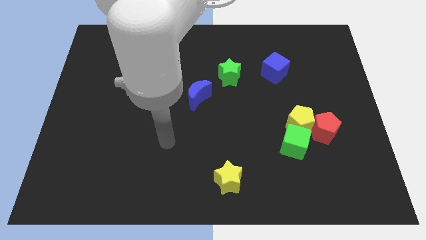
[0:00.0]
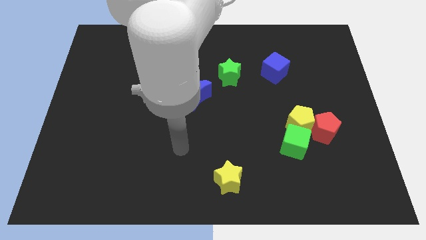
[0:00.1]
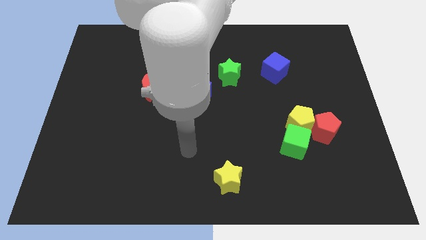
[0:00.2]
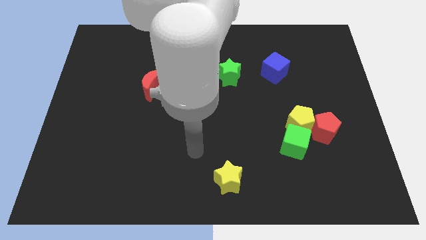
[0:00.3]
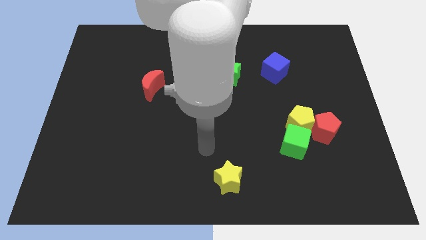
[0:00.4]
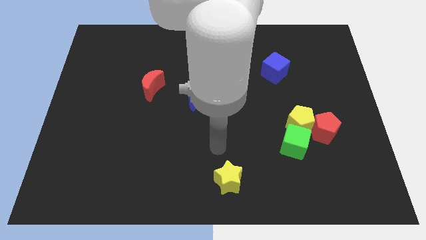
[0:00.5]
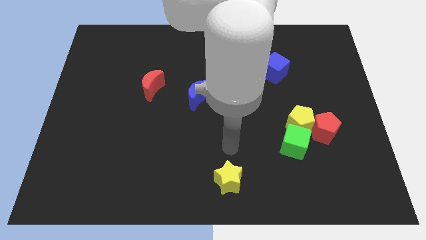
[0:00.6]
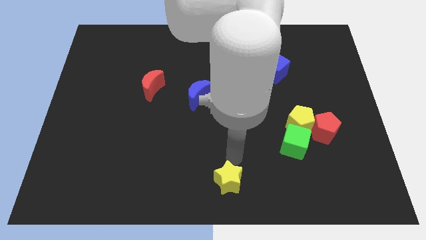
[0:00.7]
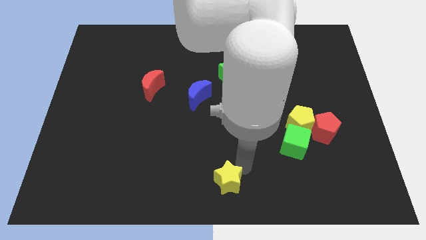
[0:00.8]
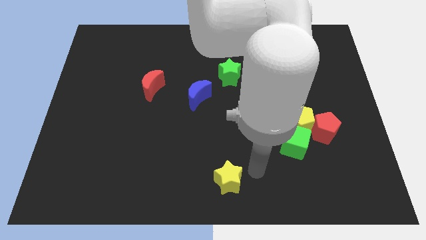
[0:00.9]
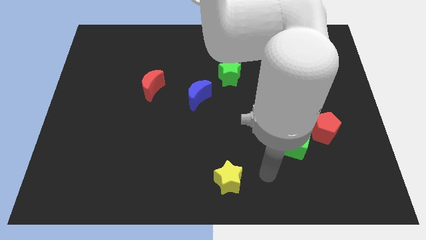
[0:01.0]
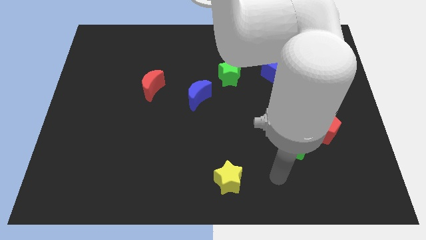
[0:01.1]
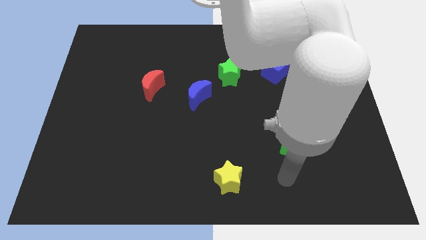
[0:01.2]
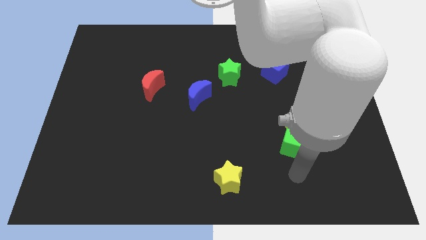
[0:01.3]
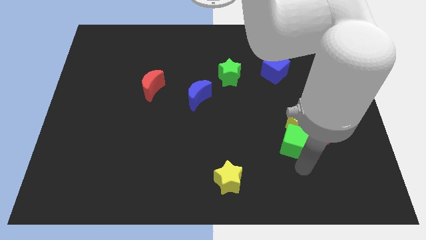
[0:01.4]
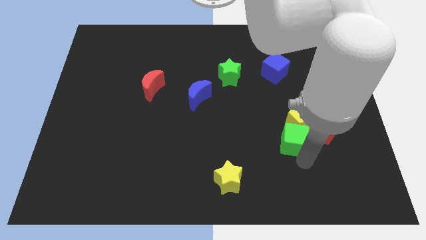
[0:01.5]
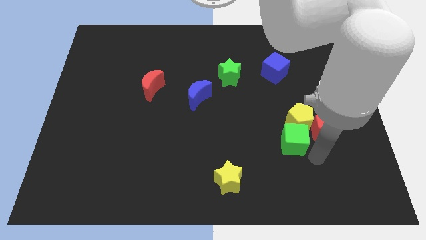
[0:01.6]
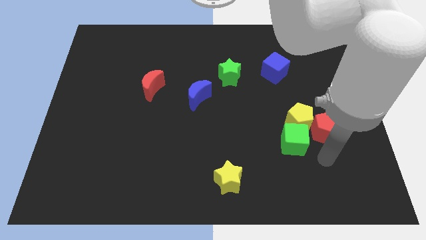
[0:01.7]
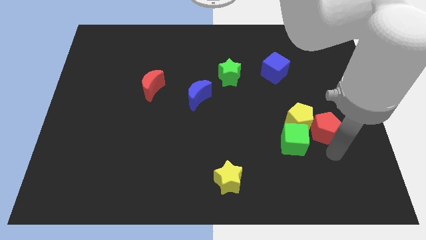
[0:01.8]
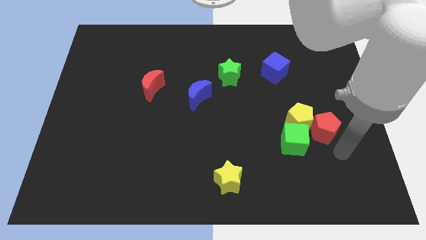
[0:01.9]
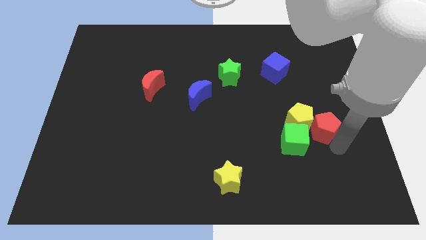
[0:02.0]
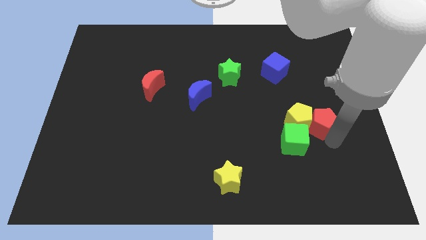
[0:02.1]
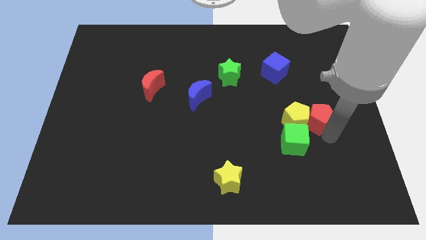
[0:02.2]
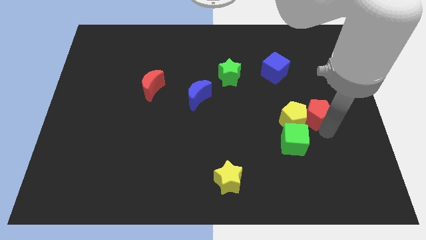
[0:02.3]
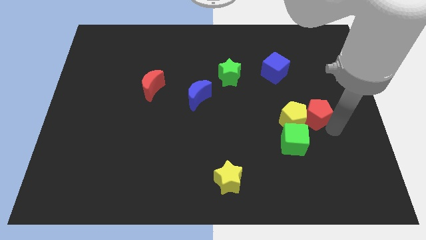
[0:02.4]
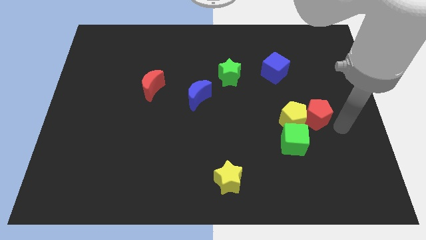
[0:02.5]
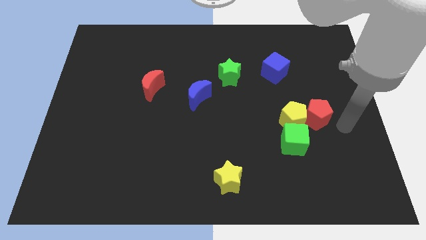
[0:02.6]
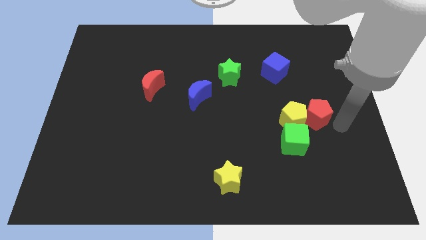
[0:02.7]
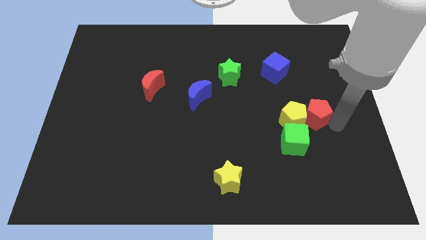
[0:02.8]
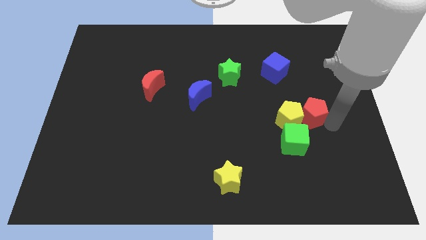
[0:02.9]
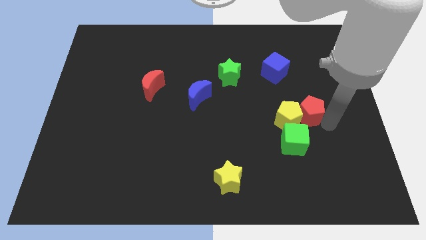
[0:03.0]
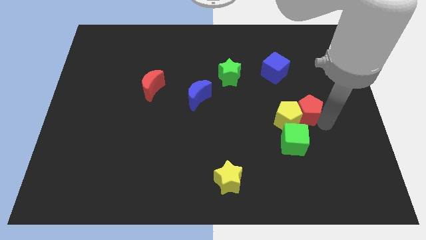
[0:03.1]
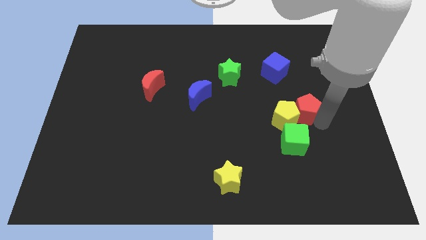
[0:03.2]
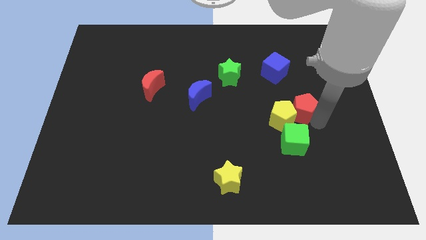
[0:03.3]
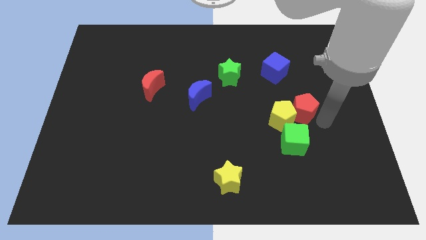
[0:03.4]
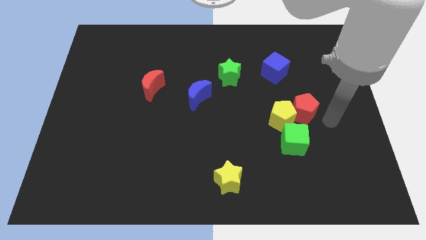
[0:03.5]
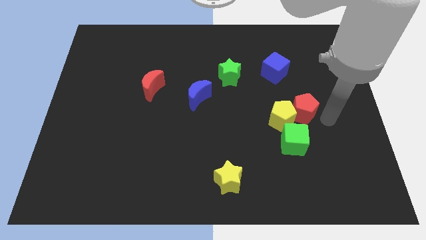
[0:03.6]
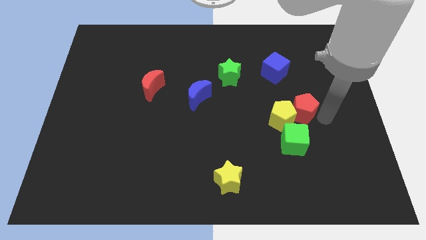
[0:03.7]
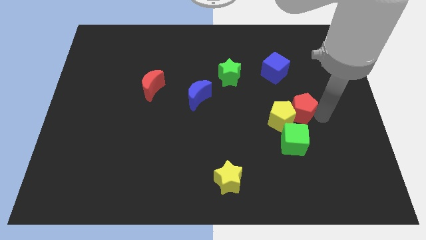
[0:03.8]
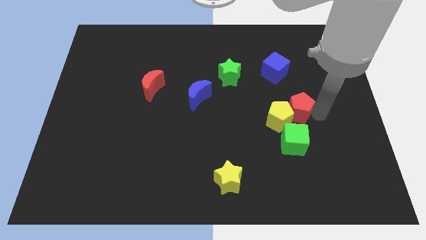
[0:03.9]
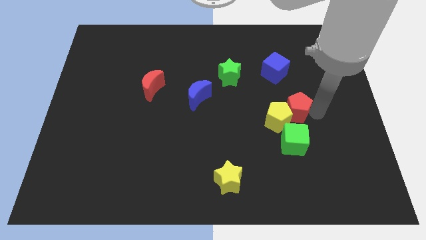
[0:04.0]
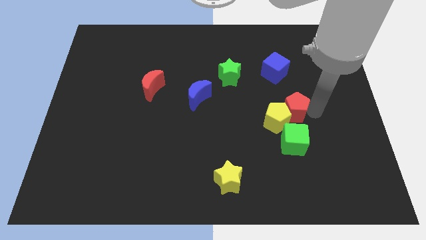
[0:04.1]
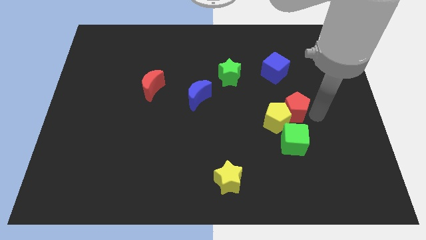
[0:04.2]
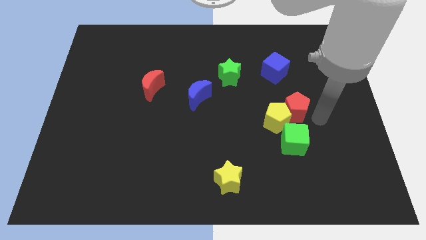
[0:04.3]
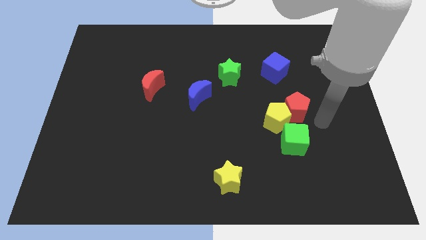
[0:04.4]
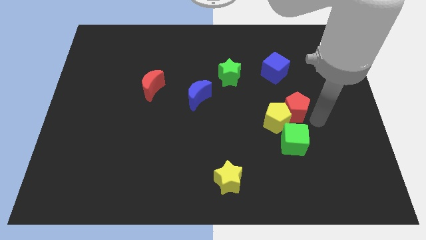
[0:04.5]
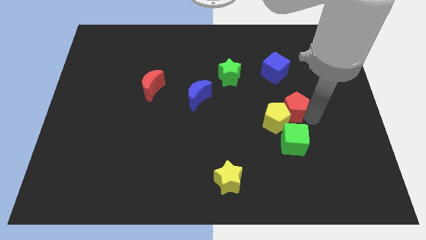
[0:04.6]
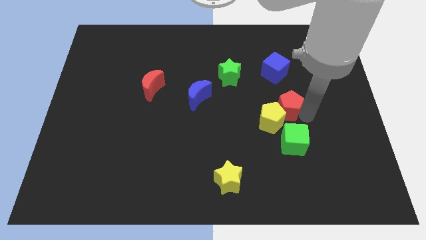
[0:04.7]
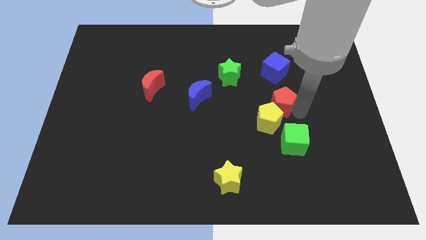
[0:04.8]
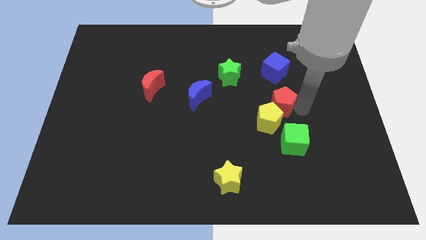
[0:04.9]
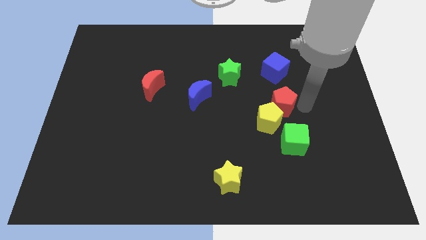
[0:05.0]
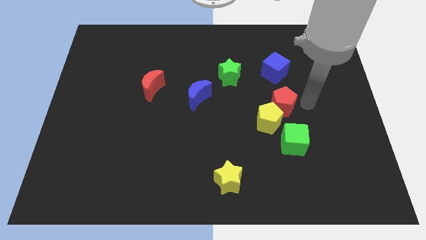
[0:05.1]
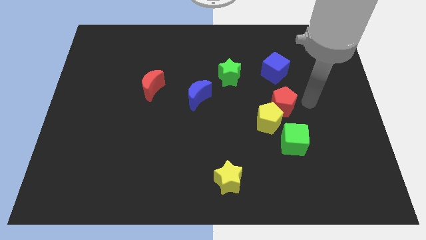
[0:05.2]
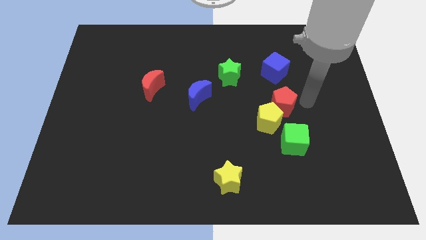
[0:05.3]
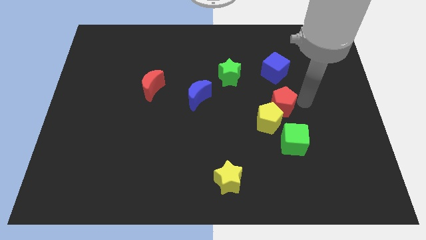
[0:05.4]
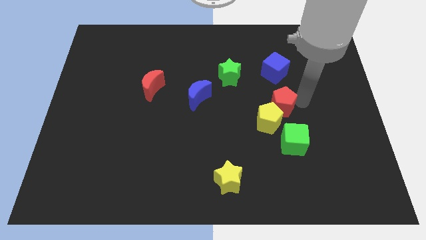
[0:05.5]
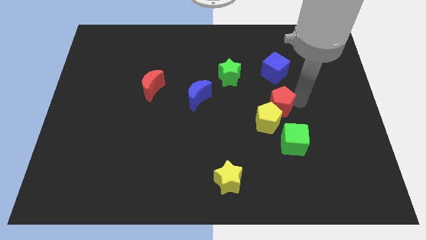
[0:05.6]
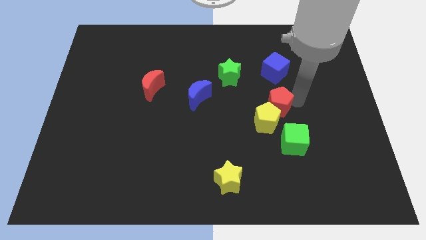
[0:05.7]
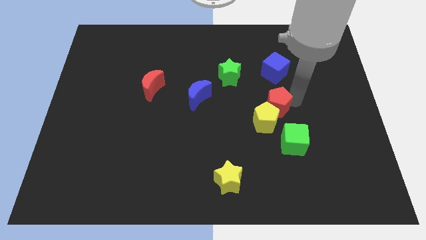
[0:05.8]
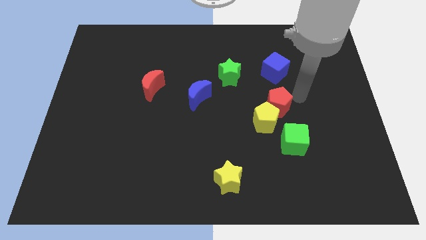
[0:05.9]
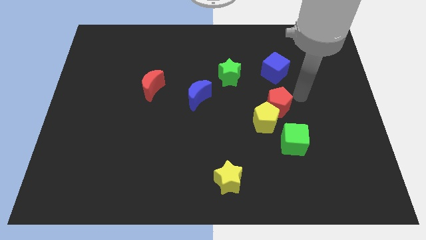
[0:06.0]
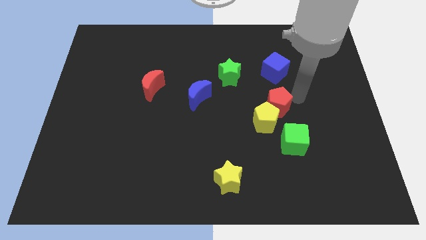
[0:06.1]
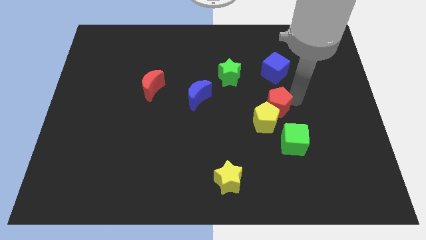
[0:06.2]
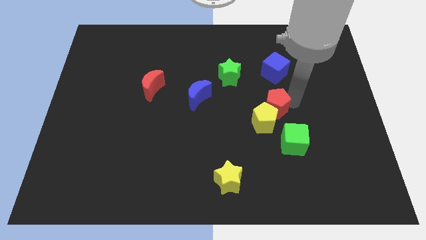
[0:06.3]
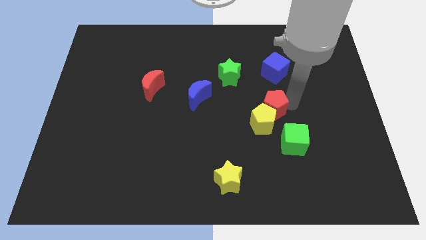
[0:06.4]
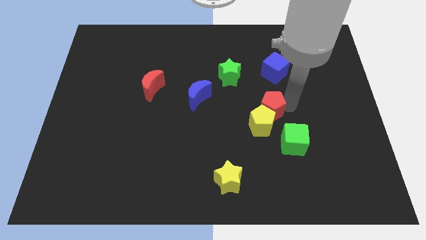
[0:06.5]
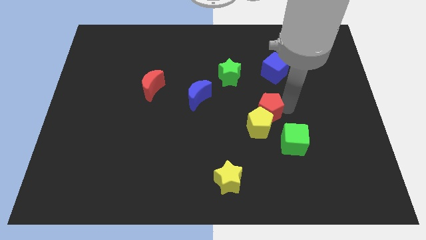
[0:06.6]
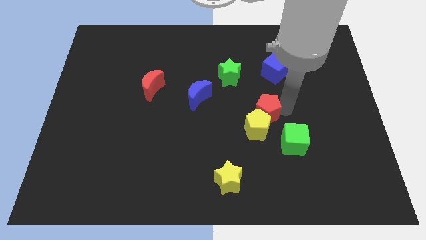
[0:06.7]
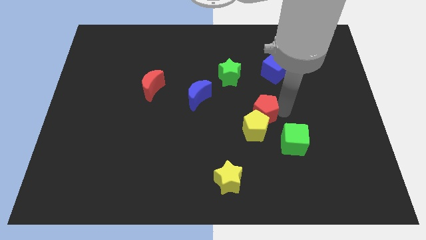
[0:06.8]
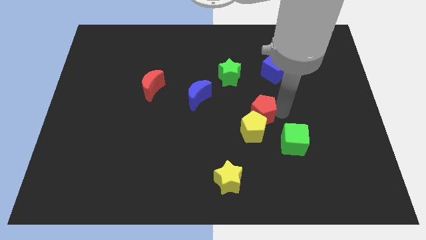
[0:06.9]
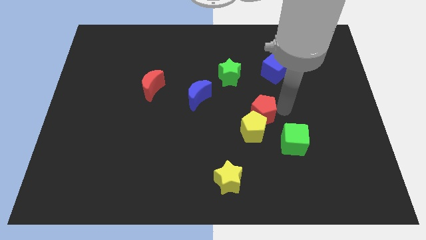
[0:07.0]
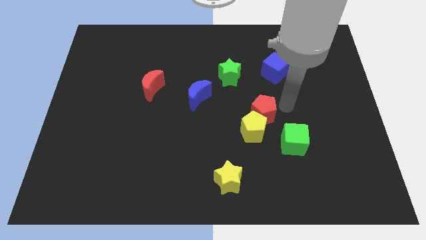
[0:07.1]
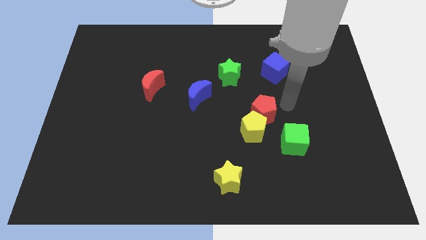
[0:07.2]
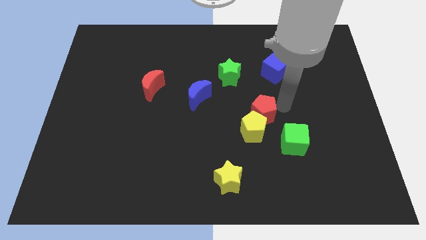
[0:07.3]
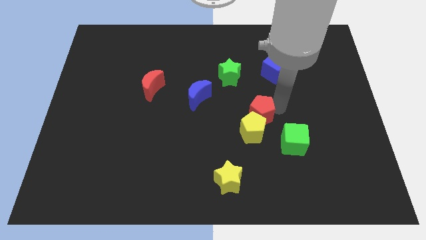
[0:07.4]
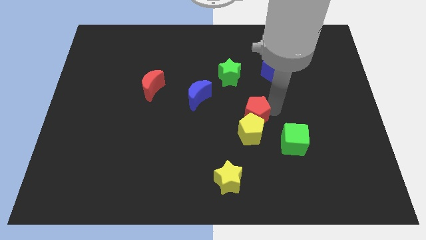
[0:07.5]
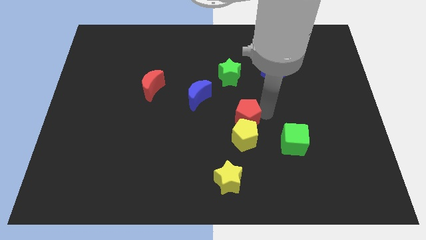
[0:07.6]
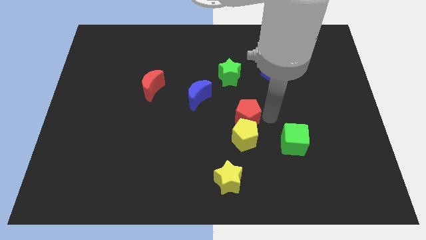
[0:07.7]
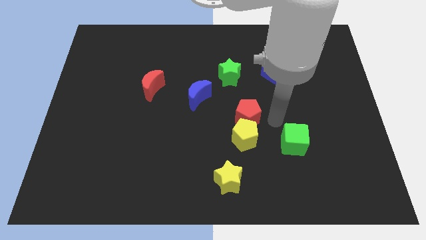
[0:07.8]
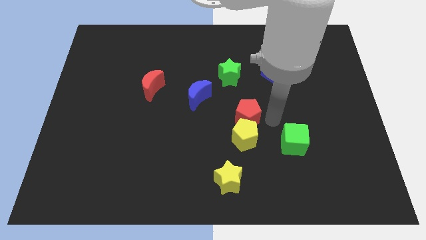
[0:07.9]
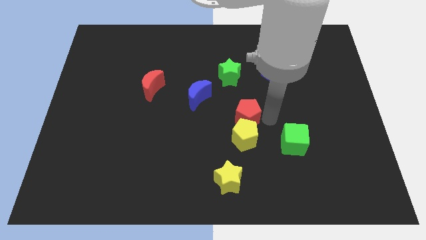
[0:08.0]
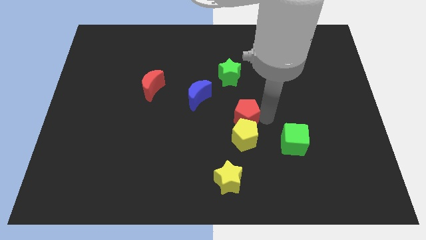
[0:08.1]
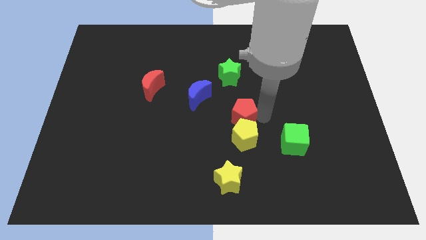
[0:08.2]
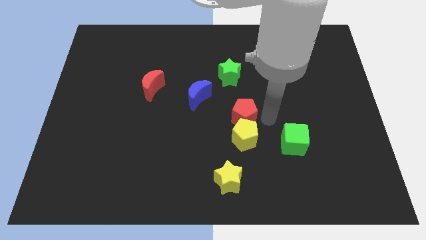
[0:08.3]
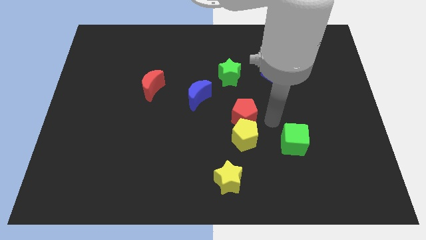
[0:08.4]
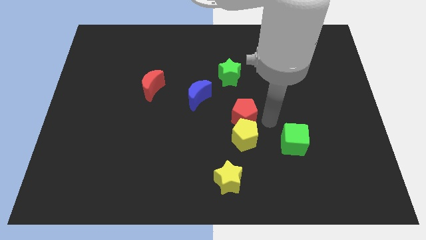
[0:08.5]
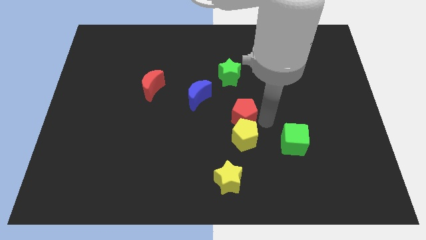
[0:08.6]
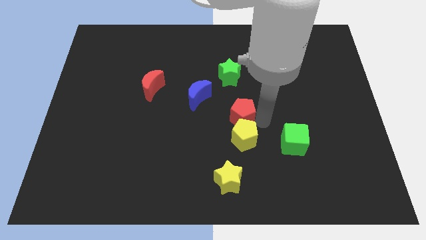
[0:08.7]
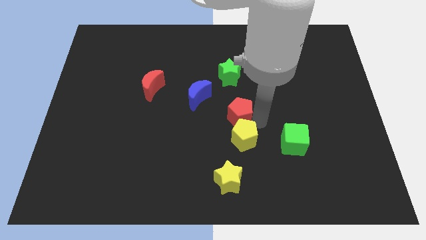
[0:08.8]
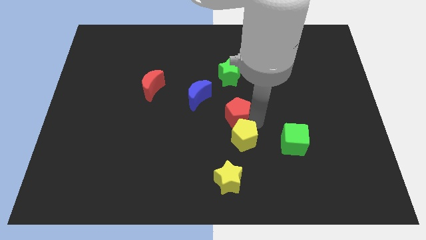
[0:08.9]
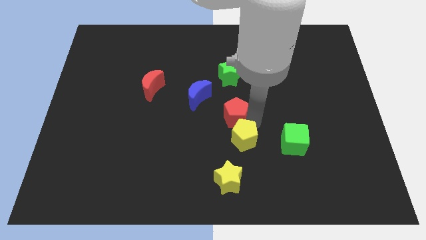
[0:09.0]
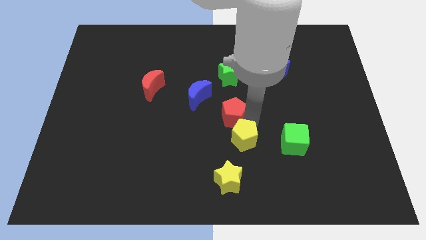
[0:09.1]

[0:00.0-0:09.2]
slide the red pentagon left
